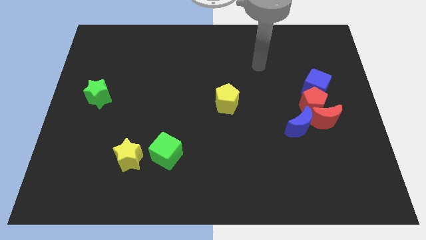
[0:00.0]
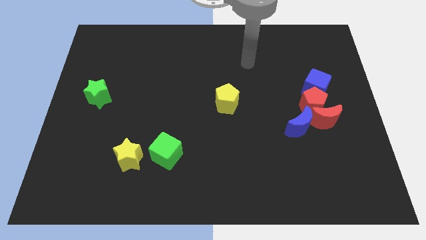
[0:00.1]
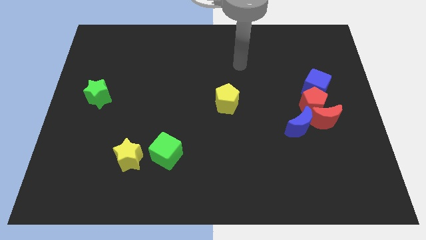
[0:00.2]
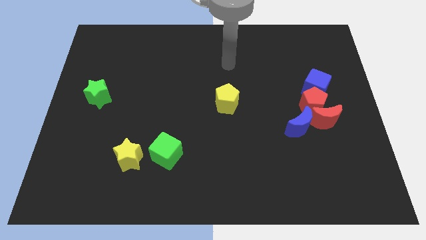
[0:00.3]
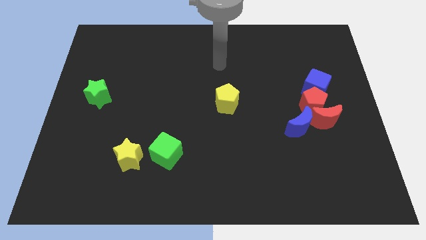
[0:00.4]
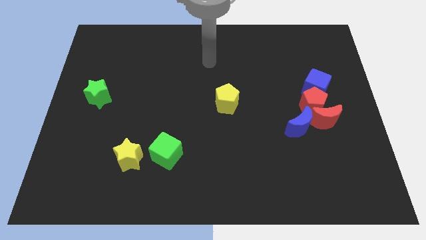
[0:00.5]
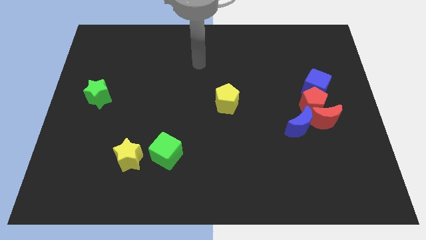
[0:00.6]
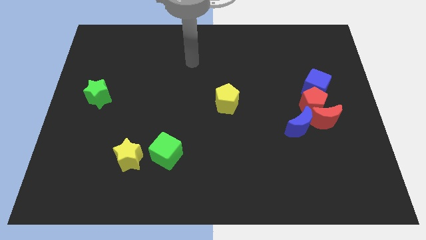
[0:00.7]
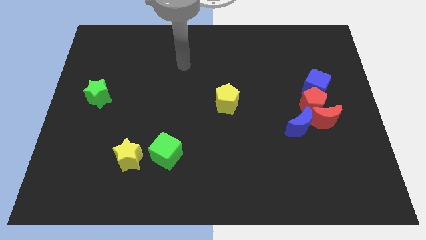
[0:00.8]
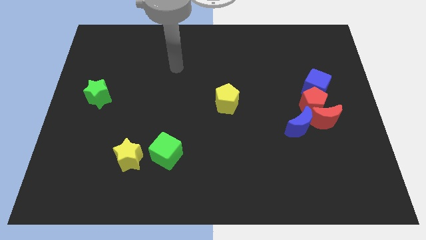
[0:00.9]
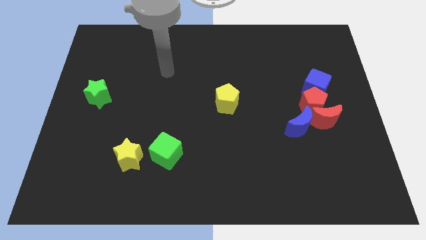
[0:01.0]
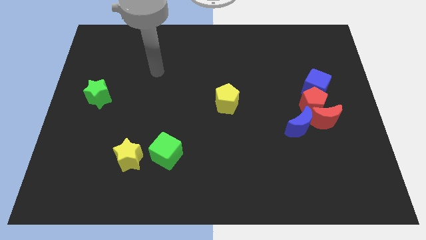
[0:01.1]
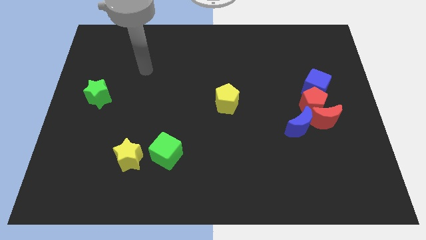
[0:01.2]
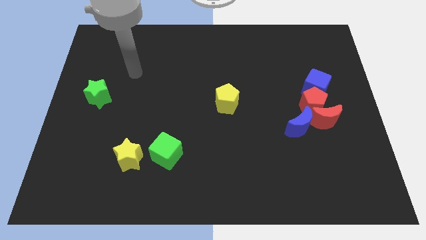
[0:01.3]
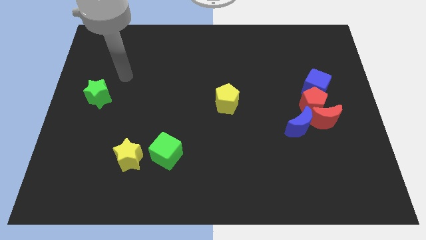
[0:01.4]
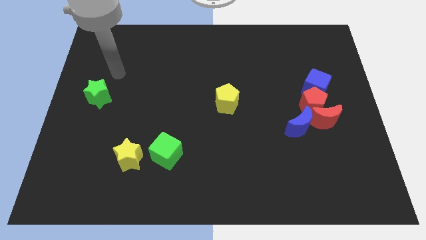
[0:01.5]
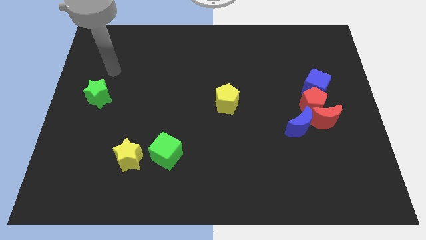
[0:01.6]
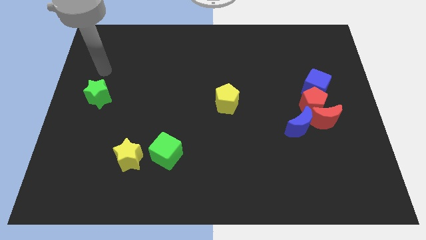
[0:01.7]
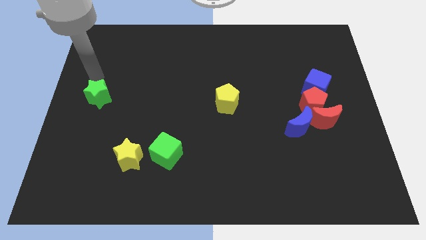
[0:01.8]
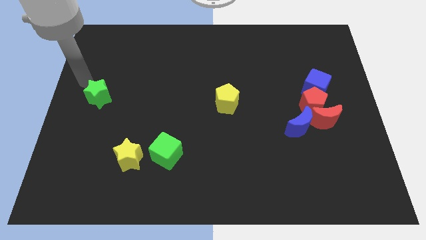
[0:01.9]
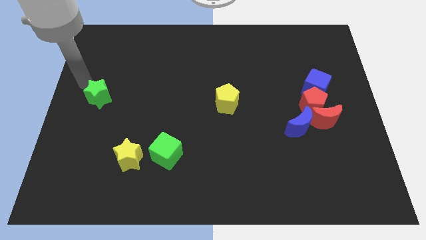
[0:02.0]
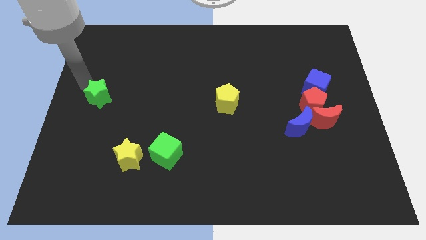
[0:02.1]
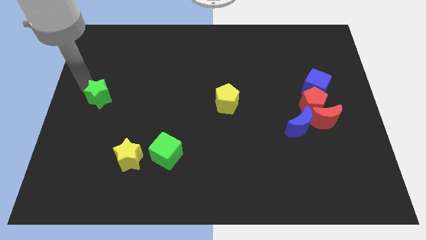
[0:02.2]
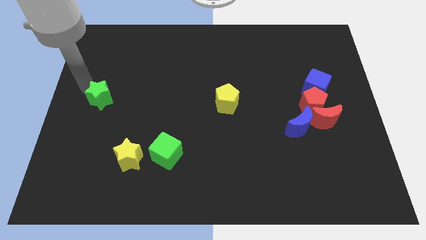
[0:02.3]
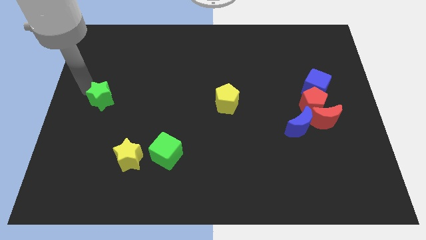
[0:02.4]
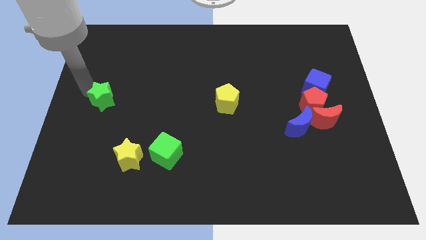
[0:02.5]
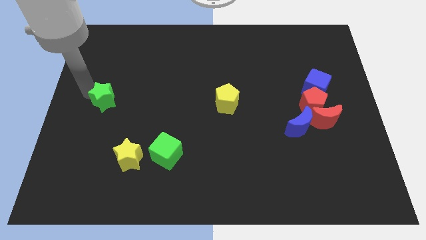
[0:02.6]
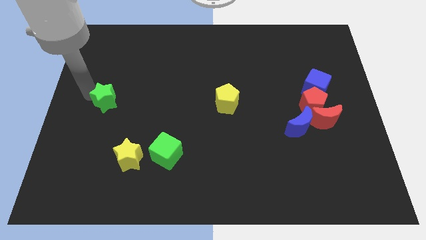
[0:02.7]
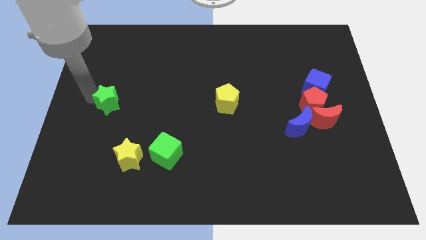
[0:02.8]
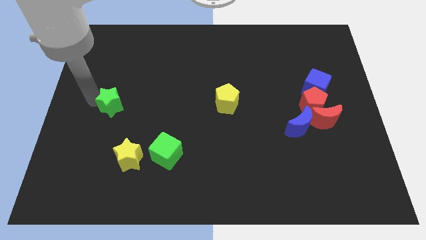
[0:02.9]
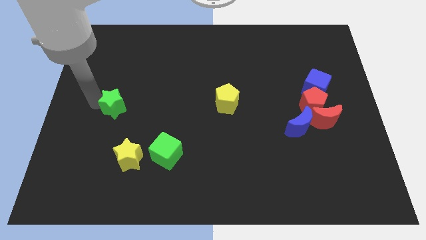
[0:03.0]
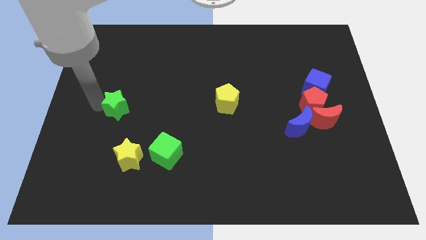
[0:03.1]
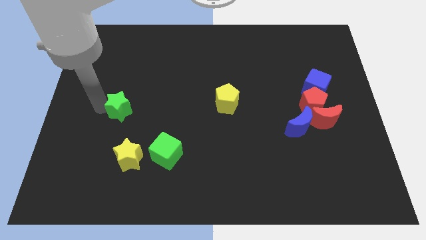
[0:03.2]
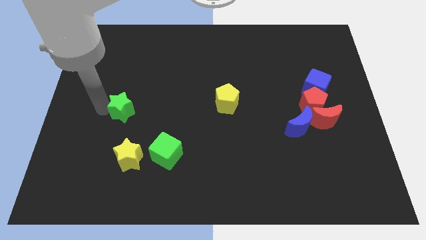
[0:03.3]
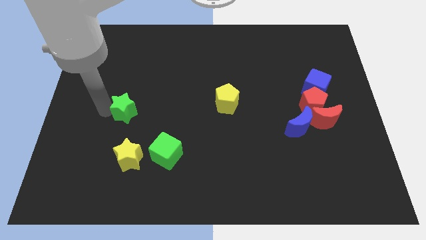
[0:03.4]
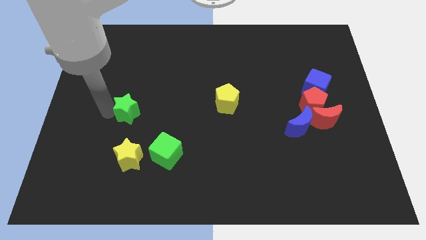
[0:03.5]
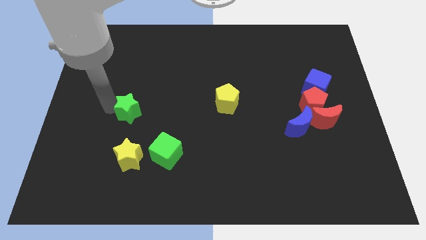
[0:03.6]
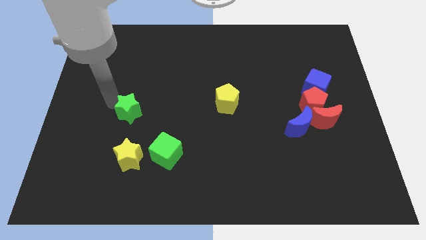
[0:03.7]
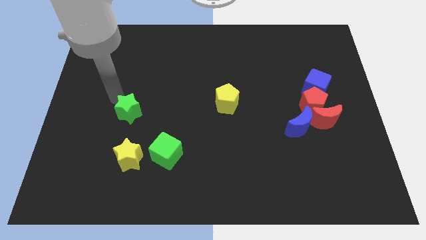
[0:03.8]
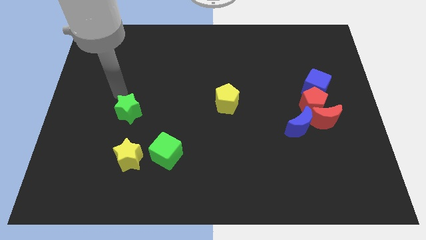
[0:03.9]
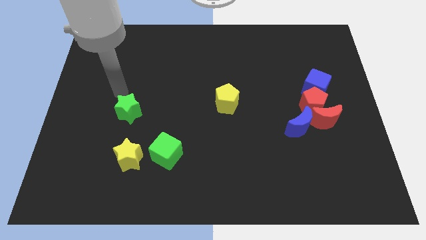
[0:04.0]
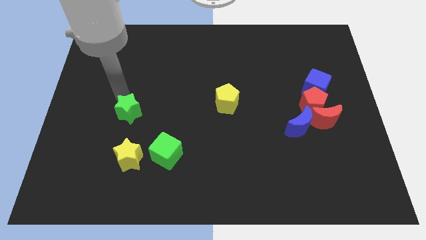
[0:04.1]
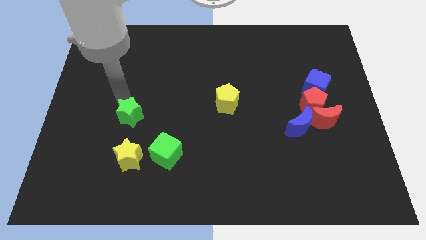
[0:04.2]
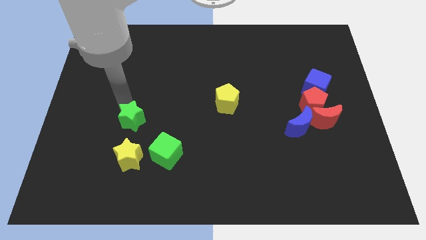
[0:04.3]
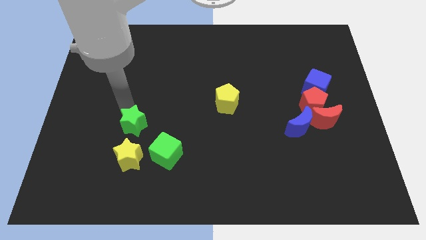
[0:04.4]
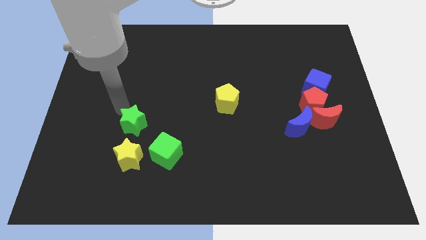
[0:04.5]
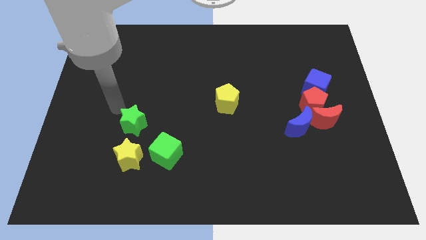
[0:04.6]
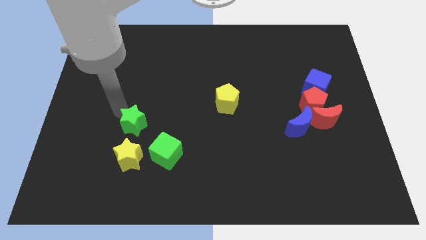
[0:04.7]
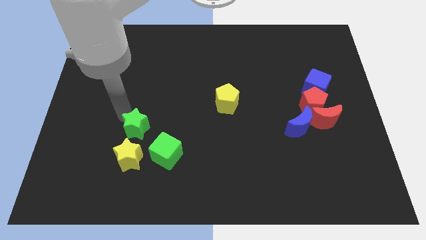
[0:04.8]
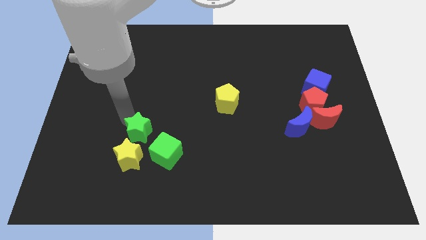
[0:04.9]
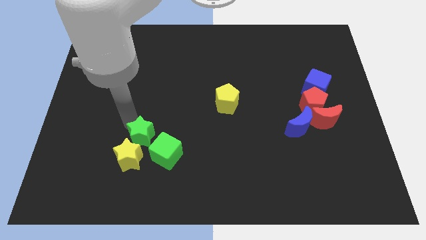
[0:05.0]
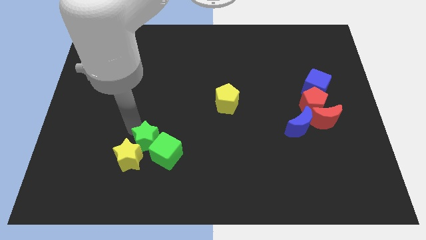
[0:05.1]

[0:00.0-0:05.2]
move the green star to the green cube

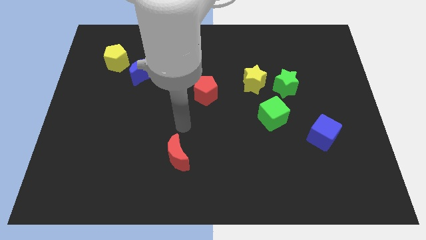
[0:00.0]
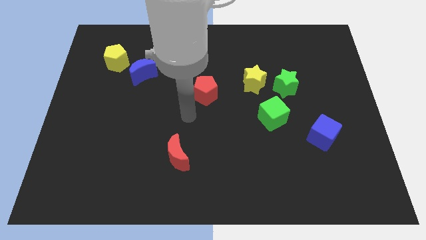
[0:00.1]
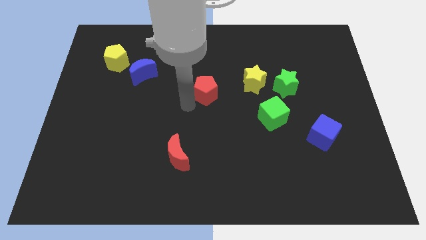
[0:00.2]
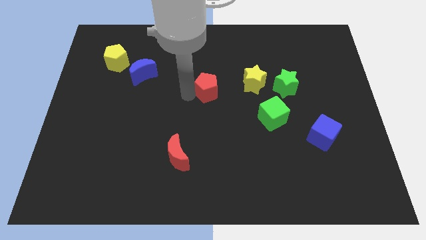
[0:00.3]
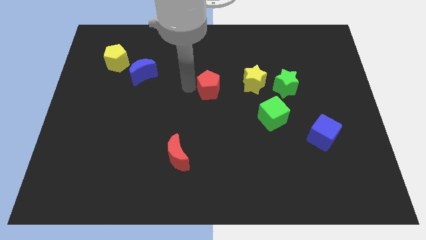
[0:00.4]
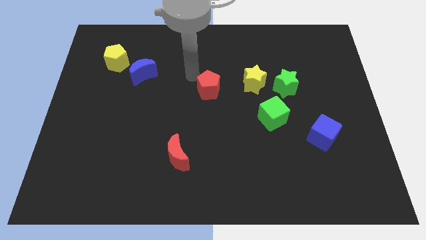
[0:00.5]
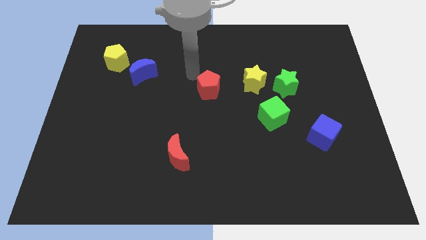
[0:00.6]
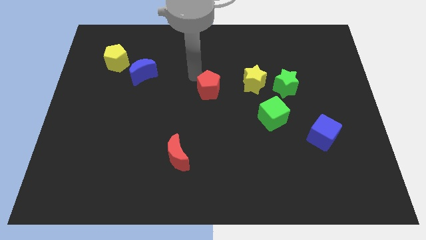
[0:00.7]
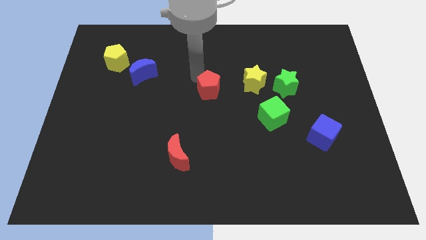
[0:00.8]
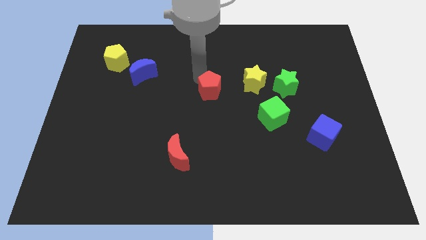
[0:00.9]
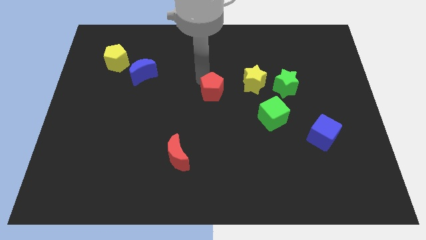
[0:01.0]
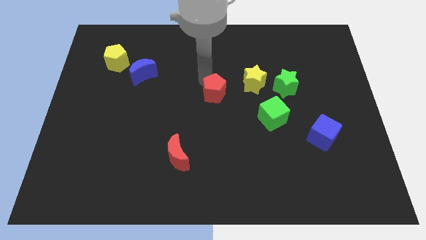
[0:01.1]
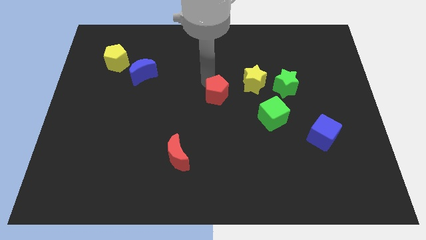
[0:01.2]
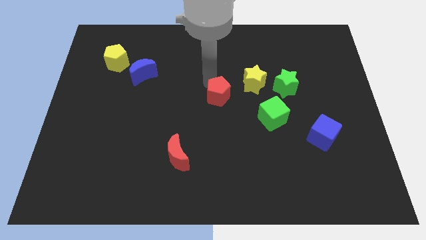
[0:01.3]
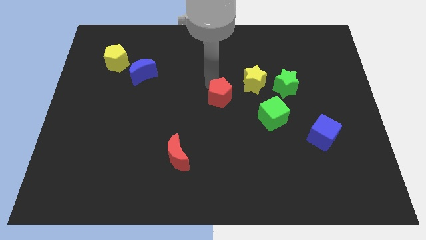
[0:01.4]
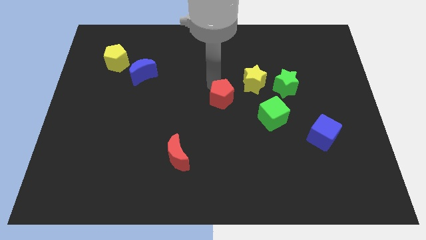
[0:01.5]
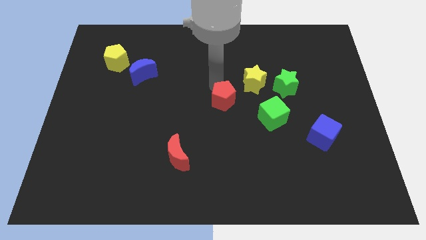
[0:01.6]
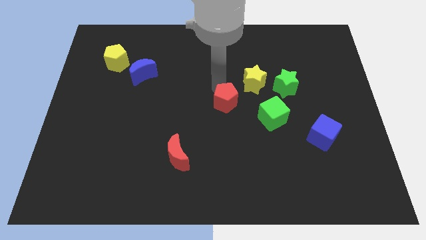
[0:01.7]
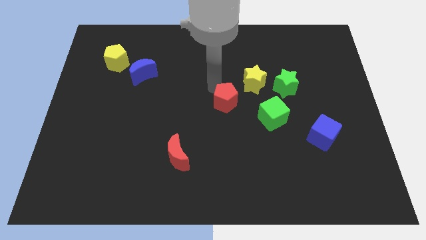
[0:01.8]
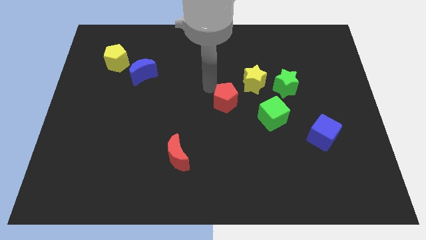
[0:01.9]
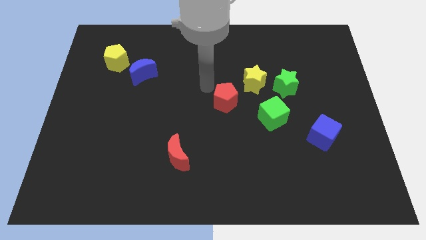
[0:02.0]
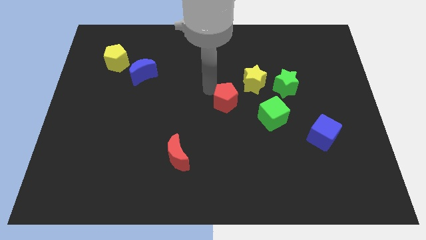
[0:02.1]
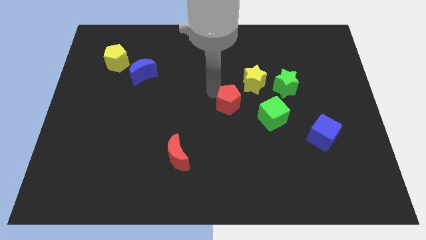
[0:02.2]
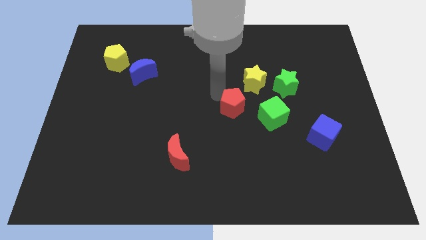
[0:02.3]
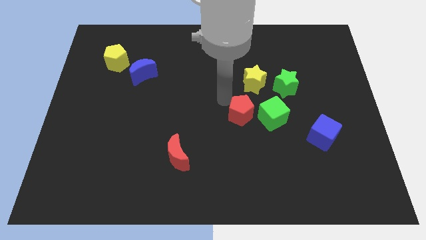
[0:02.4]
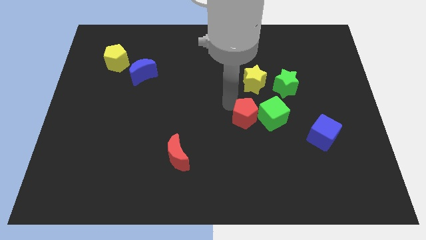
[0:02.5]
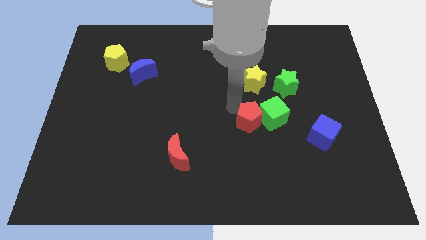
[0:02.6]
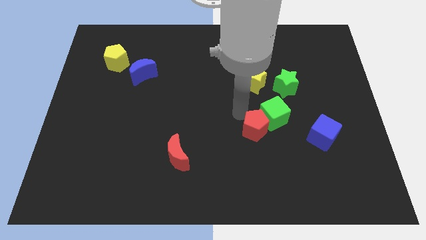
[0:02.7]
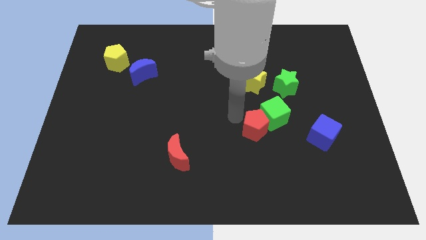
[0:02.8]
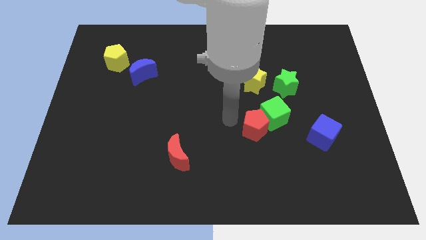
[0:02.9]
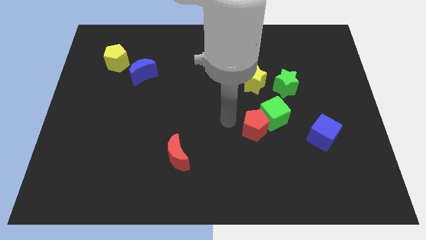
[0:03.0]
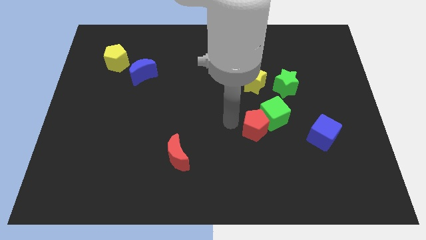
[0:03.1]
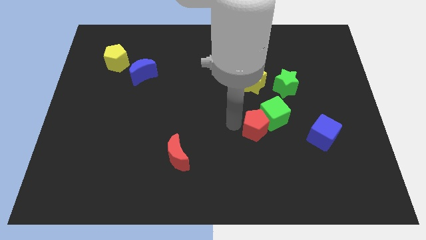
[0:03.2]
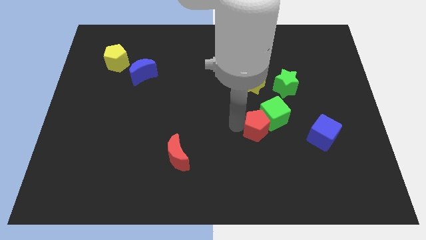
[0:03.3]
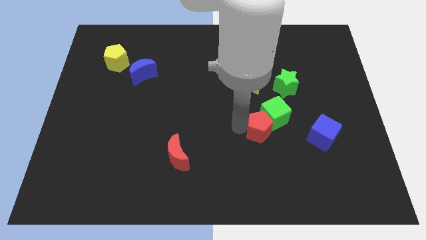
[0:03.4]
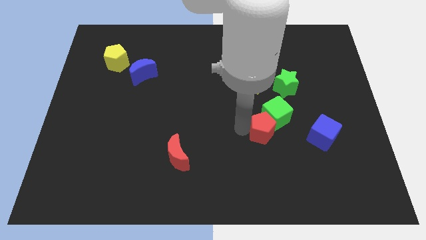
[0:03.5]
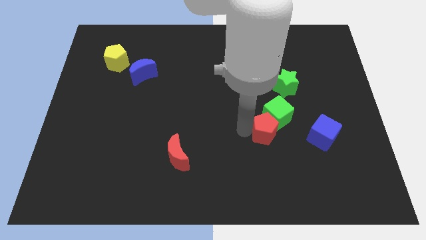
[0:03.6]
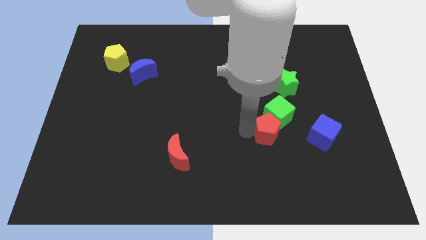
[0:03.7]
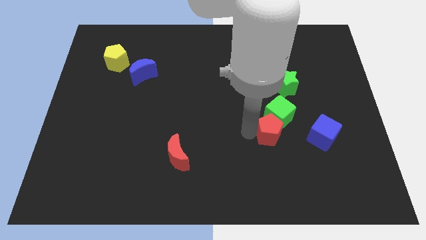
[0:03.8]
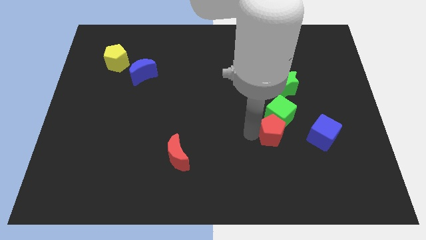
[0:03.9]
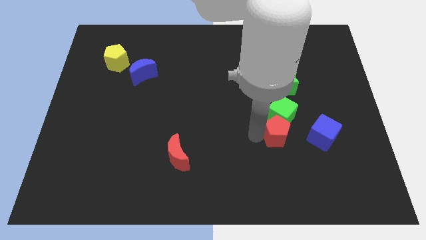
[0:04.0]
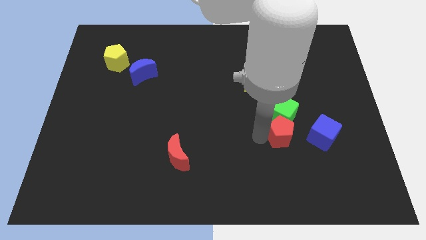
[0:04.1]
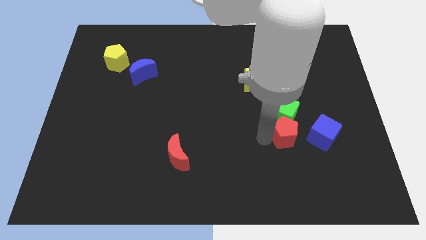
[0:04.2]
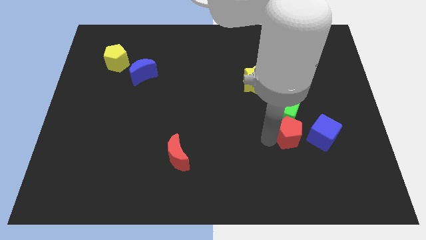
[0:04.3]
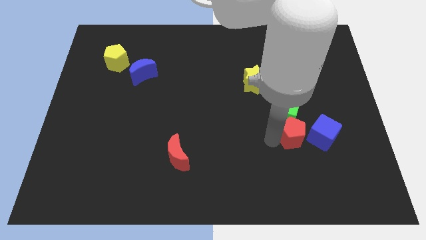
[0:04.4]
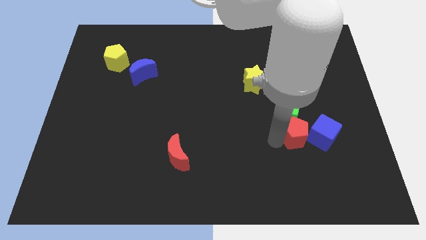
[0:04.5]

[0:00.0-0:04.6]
put the red pentagon next to the blue cube
